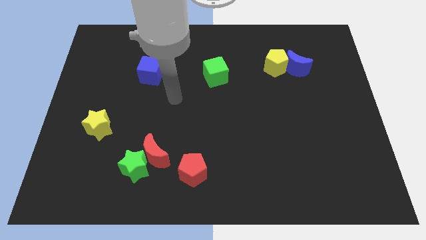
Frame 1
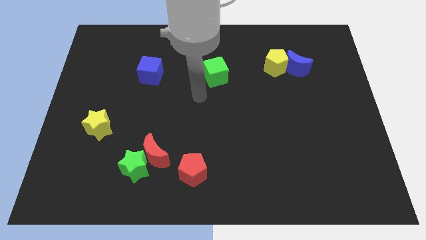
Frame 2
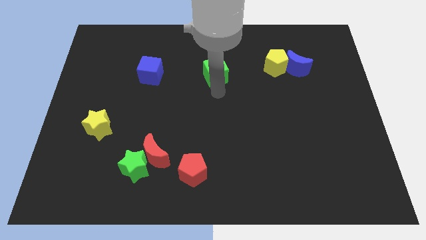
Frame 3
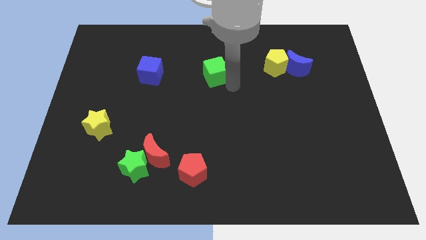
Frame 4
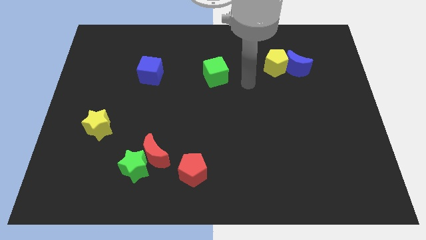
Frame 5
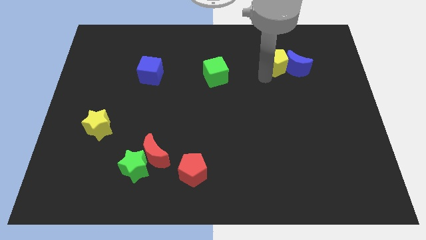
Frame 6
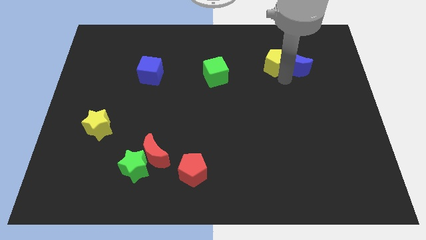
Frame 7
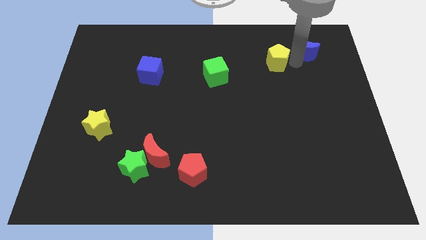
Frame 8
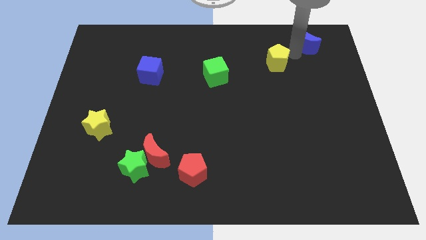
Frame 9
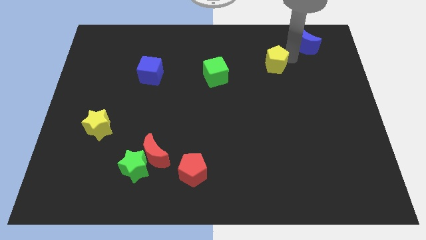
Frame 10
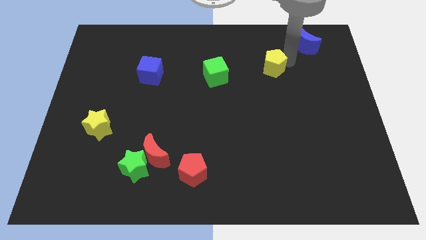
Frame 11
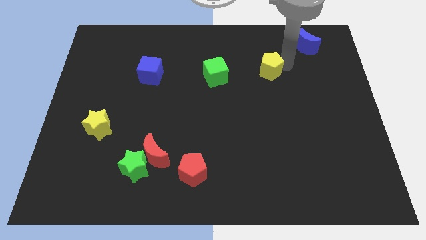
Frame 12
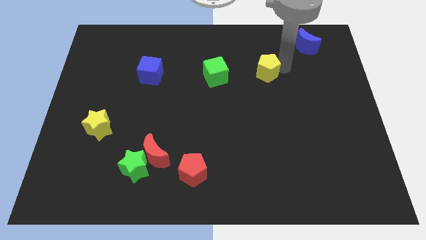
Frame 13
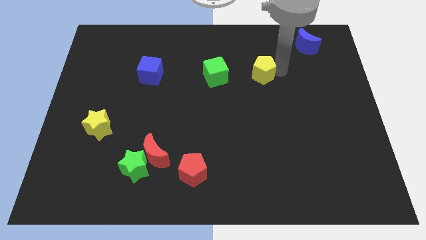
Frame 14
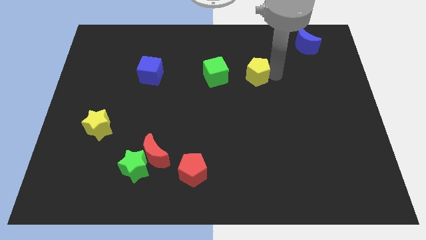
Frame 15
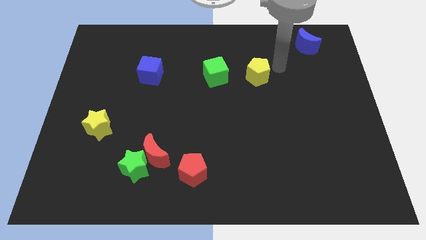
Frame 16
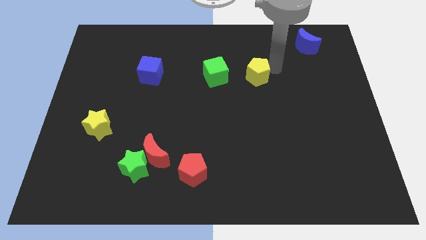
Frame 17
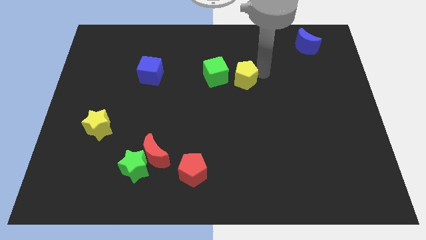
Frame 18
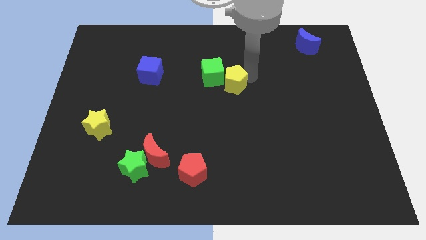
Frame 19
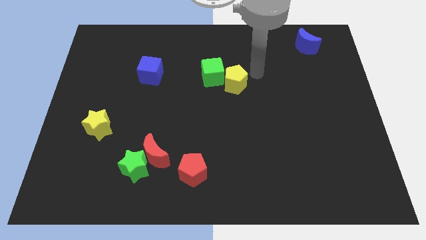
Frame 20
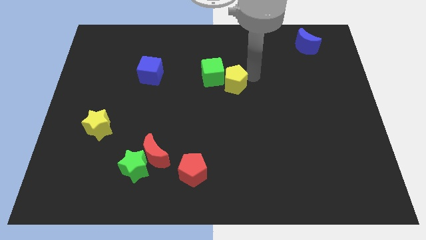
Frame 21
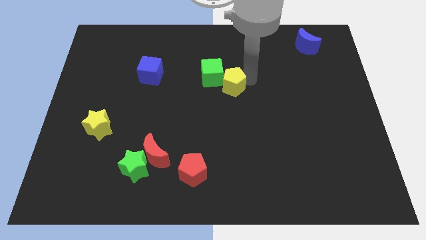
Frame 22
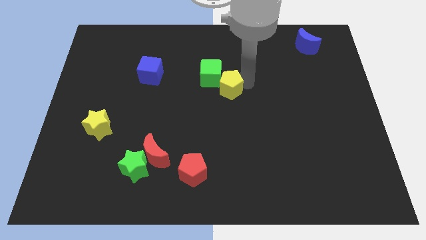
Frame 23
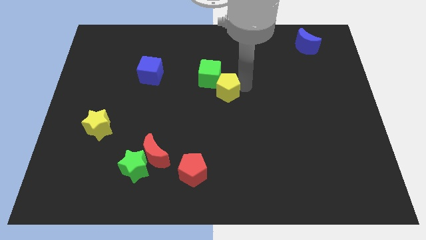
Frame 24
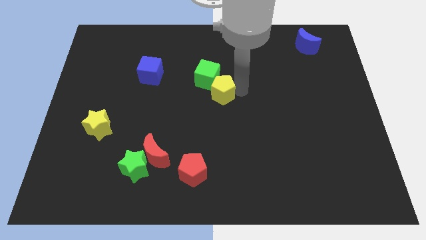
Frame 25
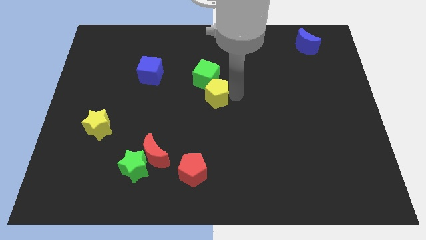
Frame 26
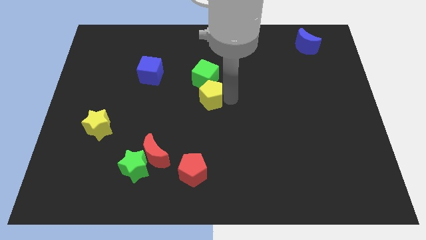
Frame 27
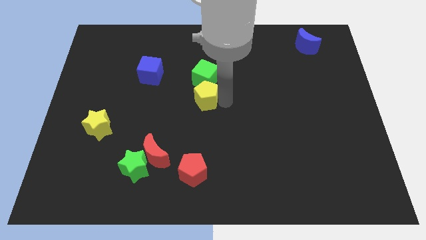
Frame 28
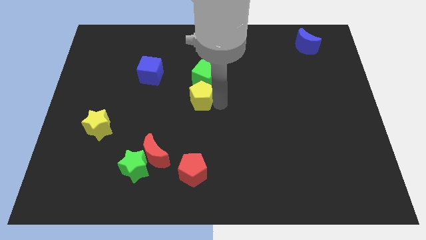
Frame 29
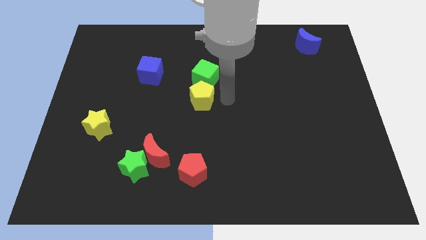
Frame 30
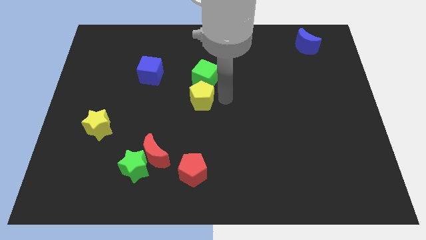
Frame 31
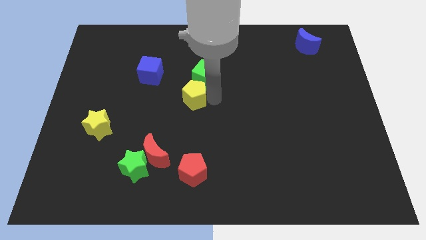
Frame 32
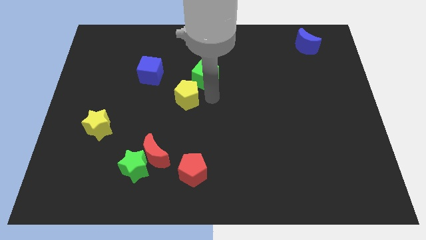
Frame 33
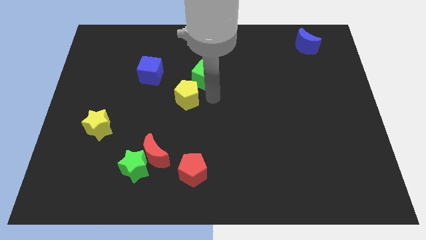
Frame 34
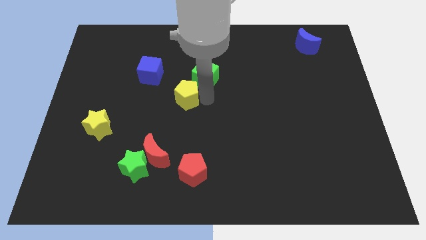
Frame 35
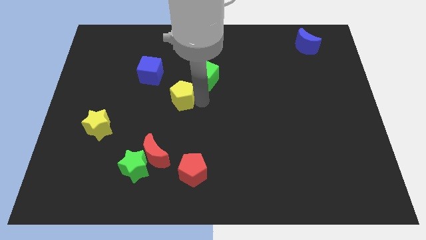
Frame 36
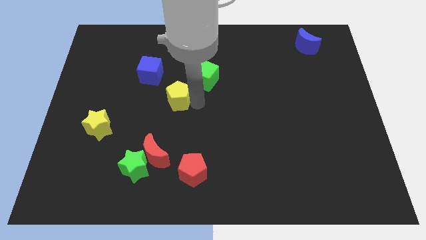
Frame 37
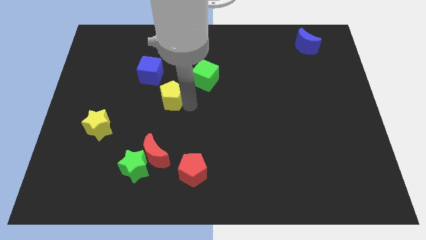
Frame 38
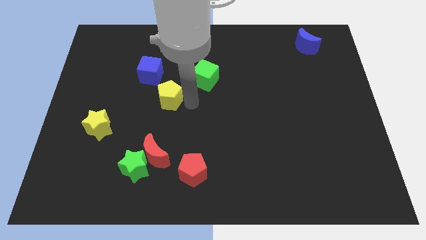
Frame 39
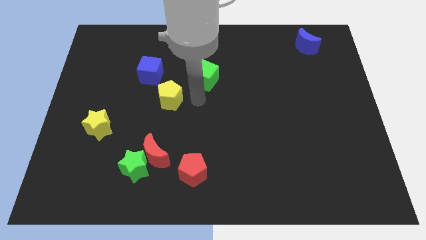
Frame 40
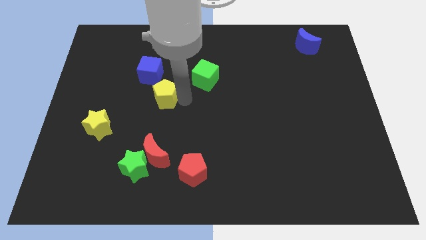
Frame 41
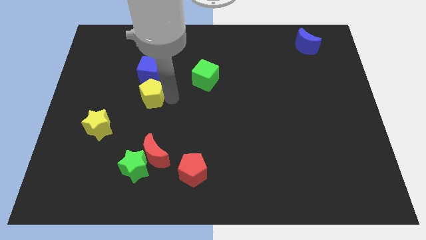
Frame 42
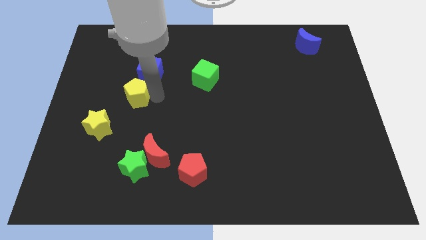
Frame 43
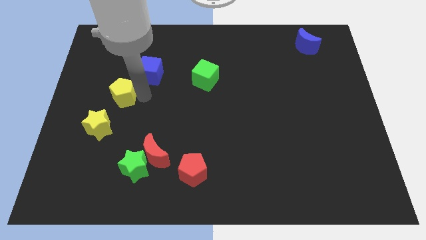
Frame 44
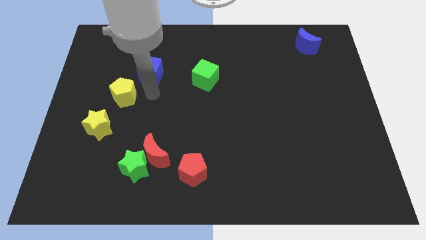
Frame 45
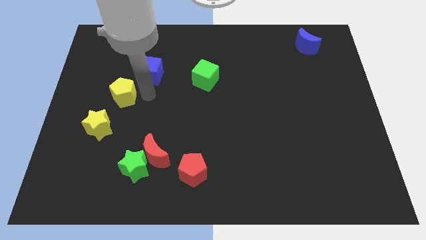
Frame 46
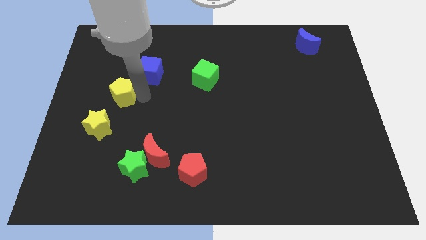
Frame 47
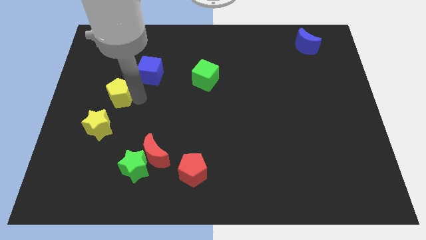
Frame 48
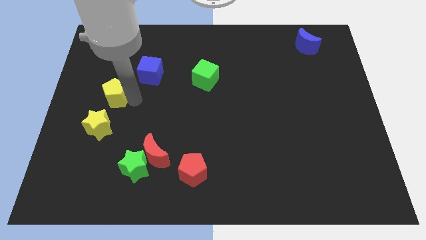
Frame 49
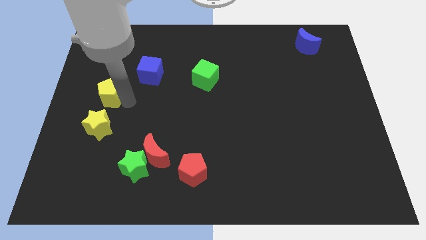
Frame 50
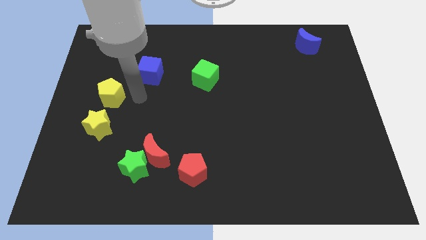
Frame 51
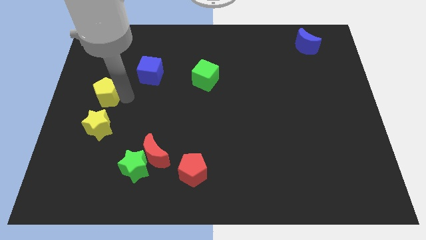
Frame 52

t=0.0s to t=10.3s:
put the yellow pentagon to the left side

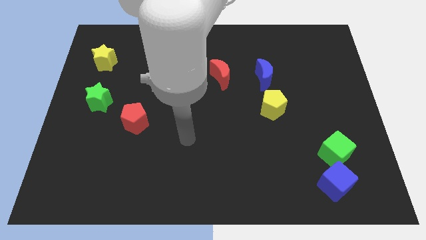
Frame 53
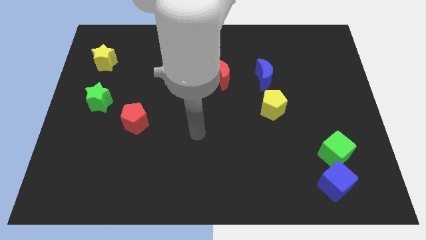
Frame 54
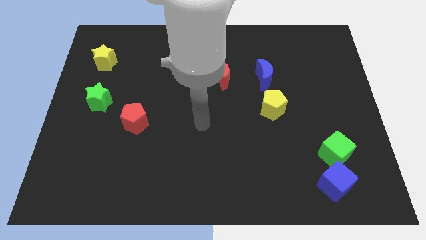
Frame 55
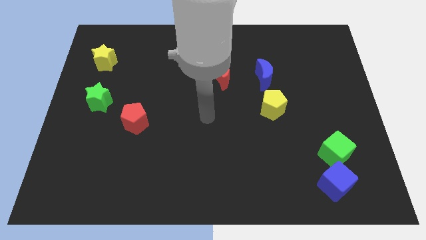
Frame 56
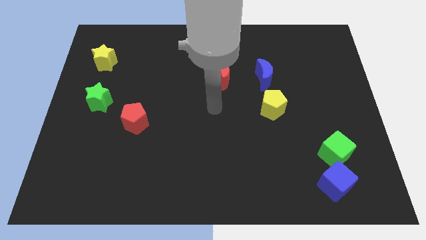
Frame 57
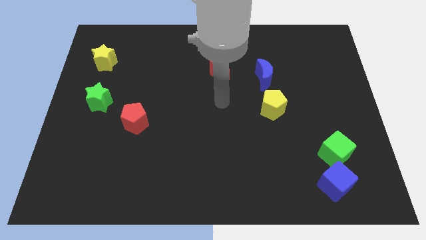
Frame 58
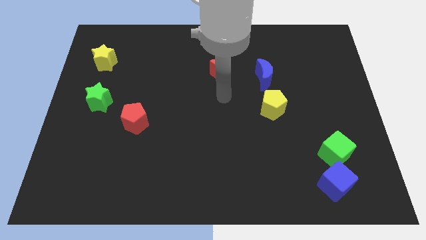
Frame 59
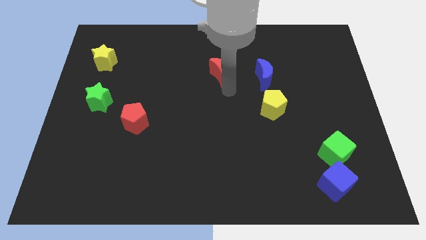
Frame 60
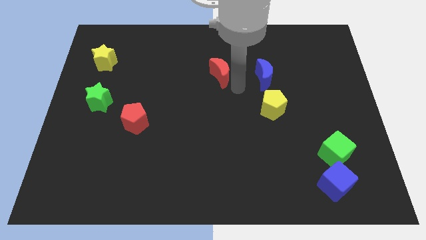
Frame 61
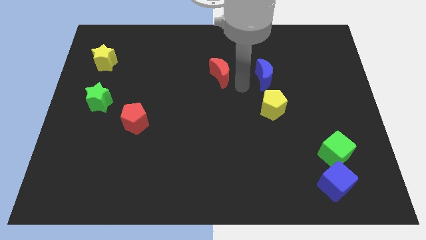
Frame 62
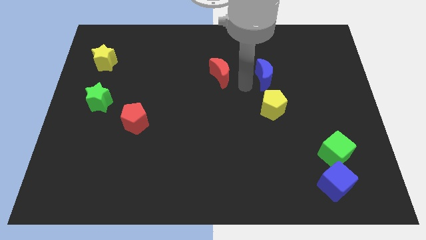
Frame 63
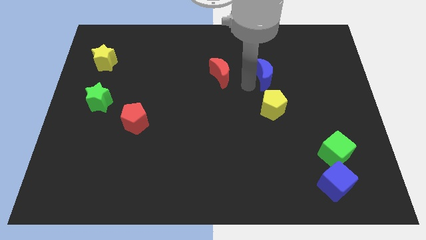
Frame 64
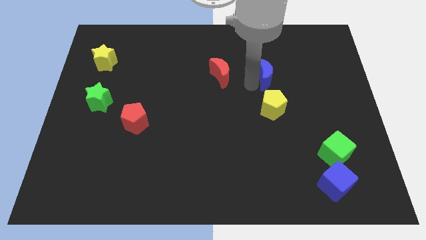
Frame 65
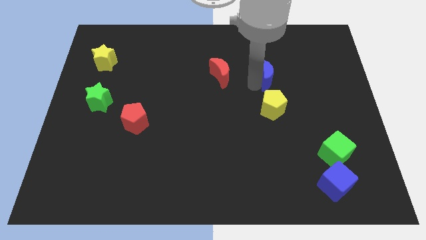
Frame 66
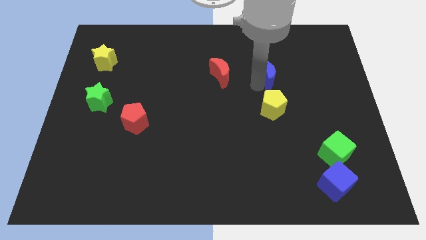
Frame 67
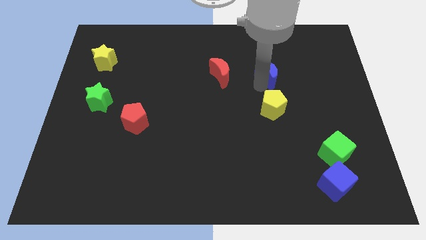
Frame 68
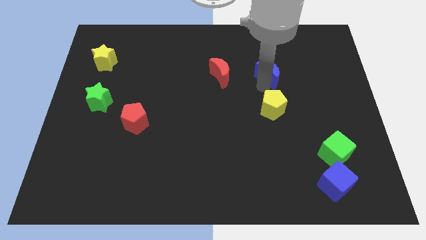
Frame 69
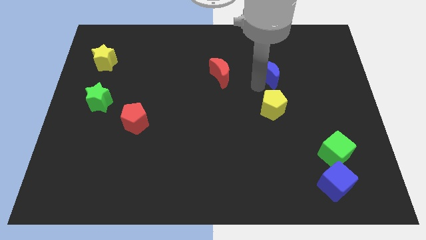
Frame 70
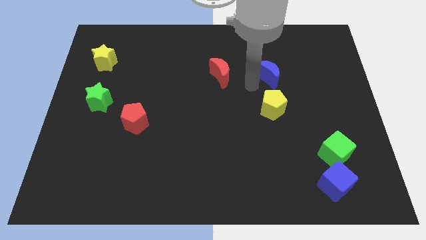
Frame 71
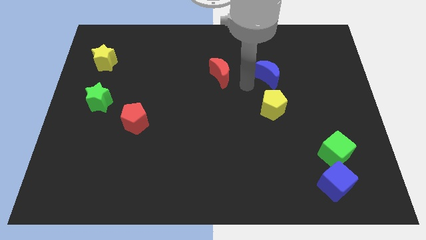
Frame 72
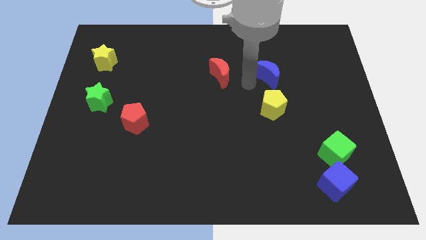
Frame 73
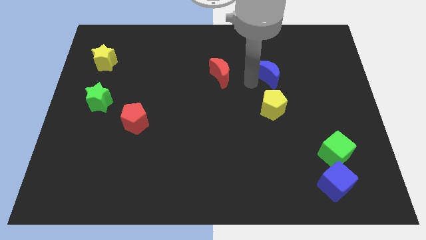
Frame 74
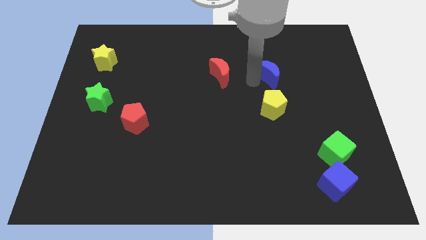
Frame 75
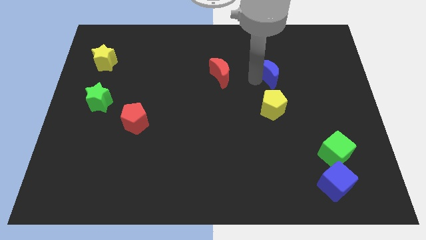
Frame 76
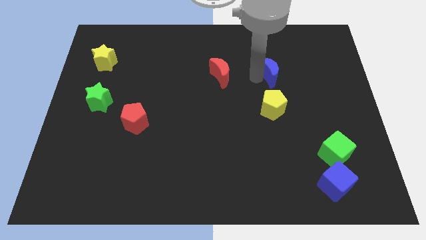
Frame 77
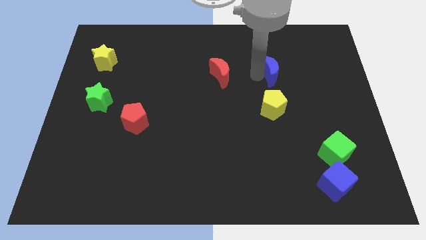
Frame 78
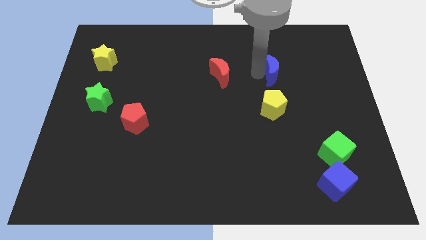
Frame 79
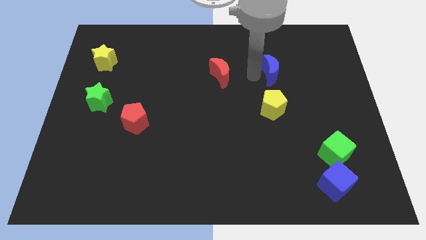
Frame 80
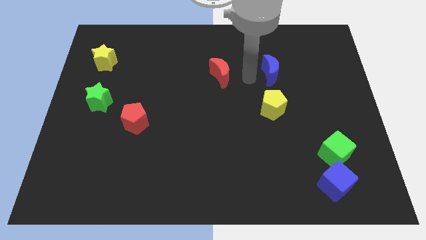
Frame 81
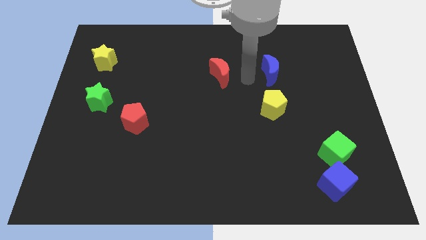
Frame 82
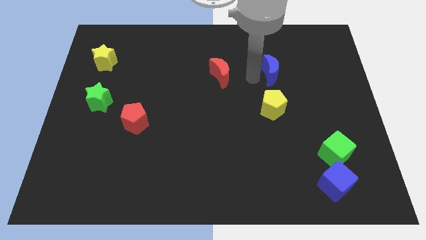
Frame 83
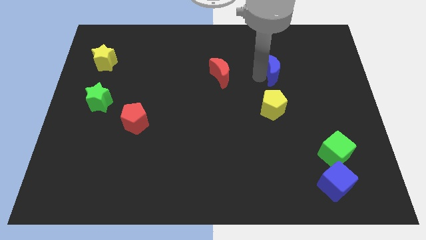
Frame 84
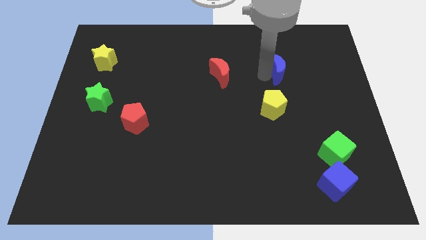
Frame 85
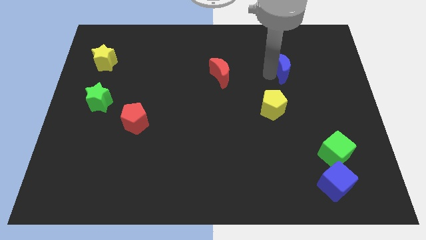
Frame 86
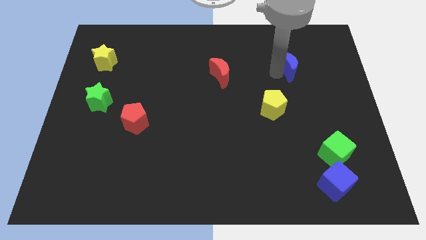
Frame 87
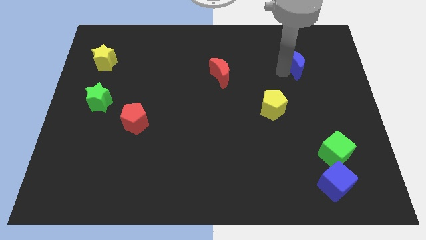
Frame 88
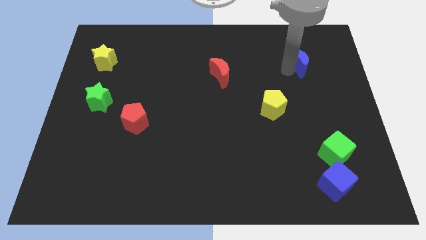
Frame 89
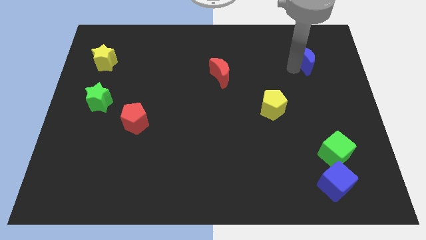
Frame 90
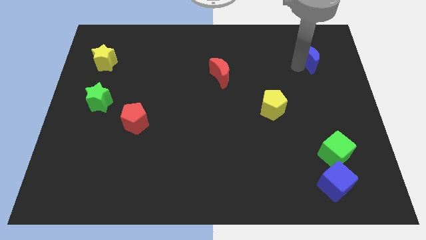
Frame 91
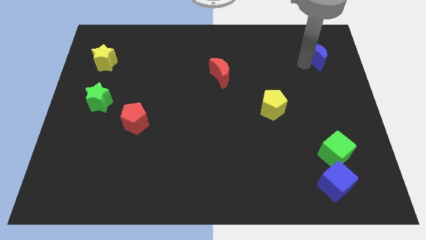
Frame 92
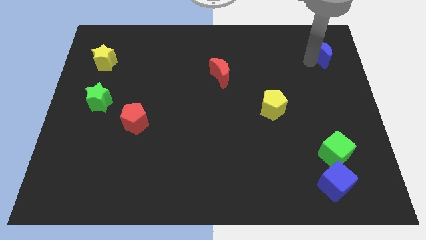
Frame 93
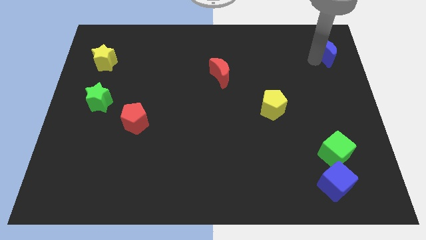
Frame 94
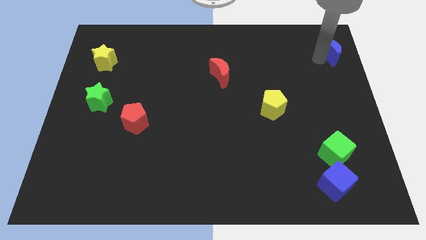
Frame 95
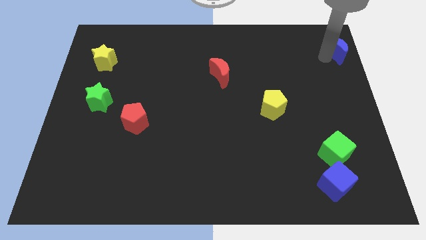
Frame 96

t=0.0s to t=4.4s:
move the blue moon to the top right of the board
